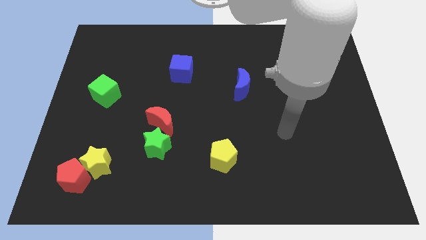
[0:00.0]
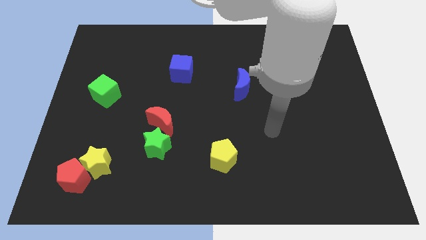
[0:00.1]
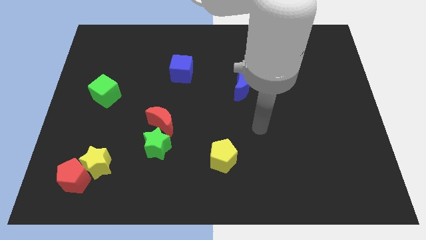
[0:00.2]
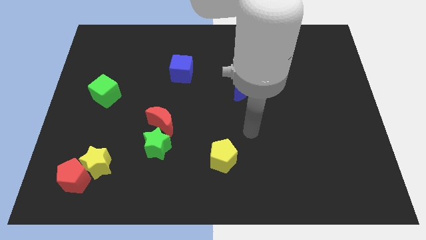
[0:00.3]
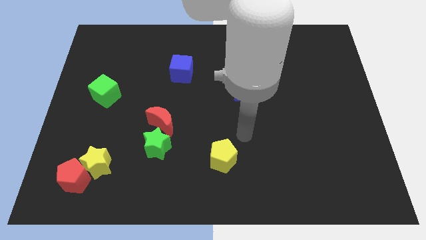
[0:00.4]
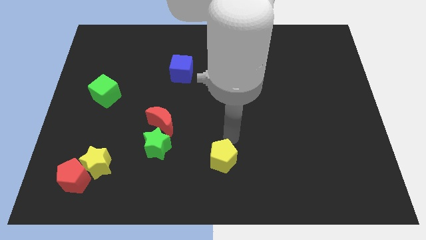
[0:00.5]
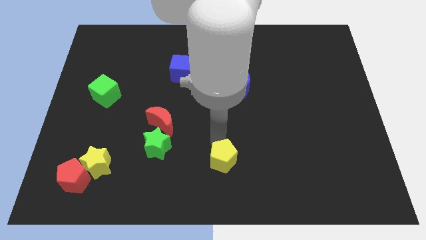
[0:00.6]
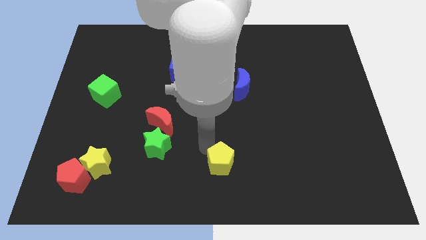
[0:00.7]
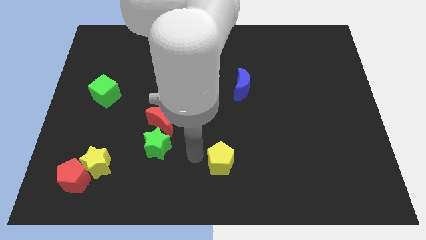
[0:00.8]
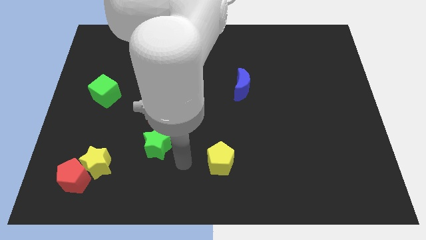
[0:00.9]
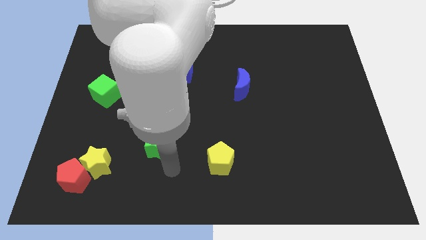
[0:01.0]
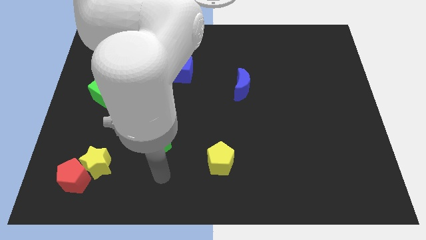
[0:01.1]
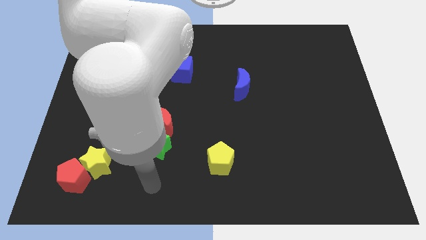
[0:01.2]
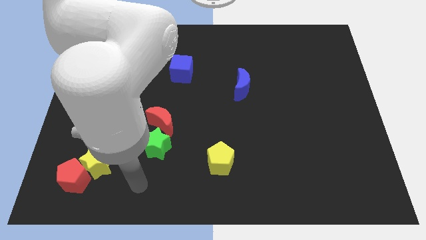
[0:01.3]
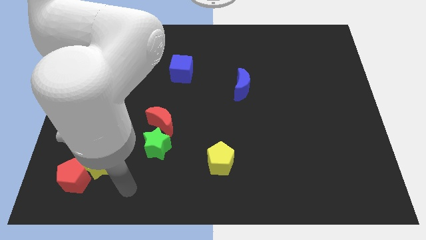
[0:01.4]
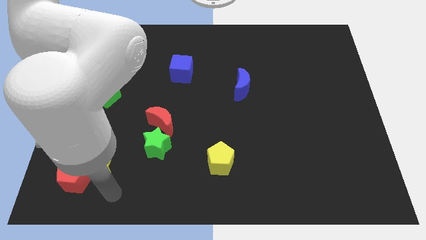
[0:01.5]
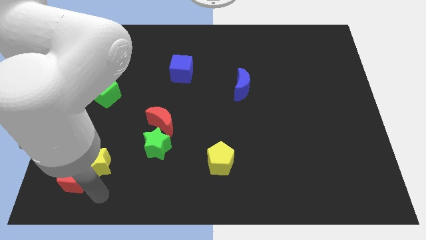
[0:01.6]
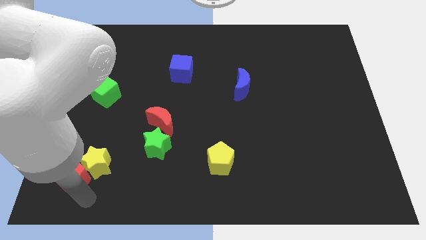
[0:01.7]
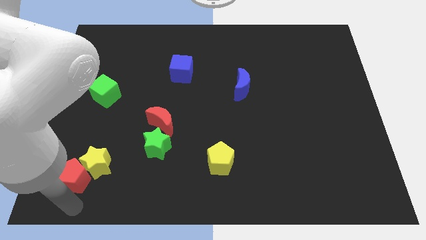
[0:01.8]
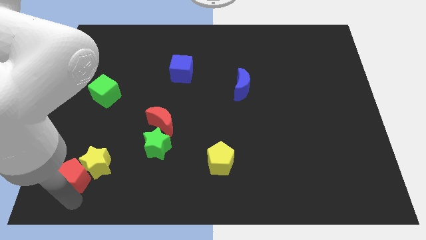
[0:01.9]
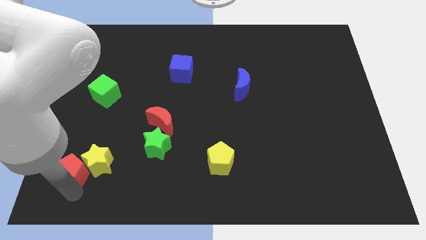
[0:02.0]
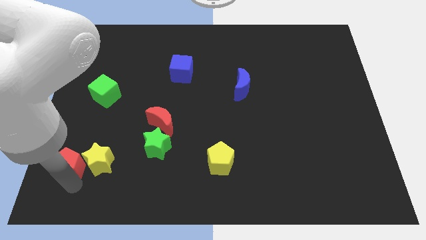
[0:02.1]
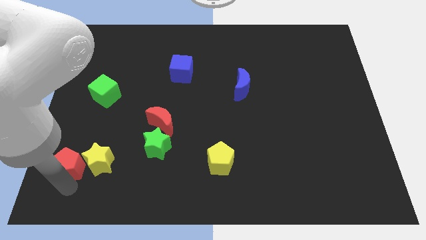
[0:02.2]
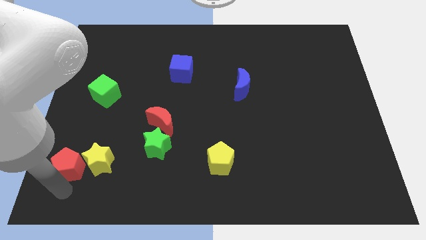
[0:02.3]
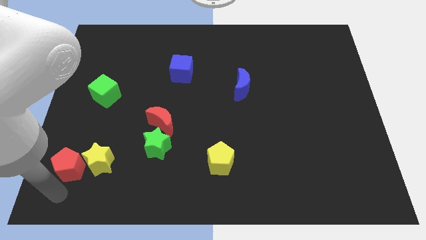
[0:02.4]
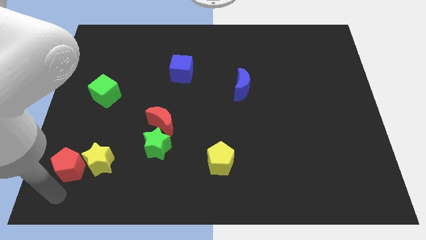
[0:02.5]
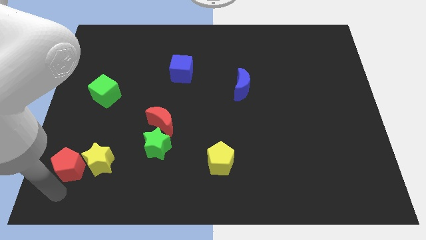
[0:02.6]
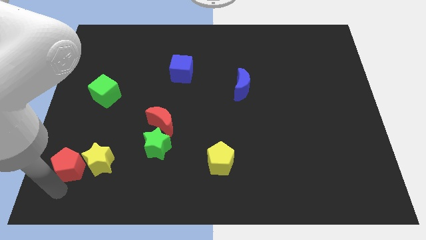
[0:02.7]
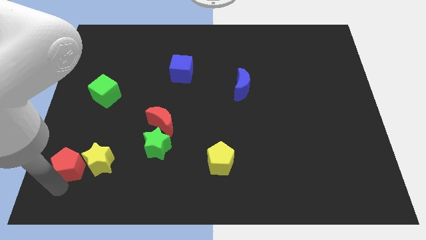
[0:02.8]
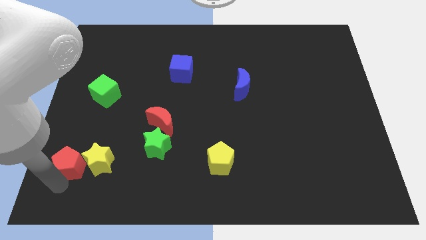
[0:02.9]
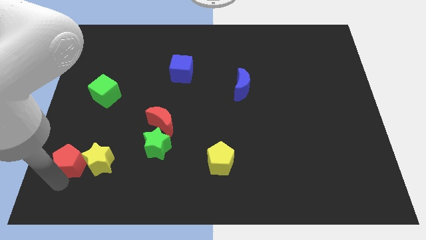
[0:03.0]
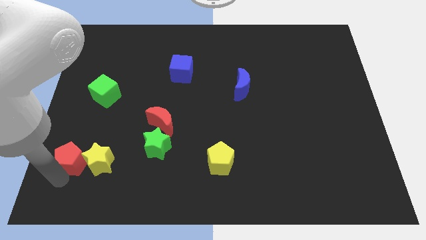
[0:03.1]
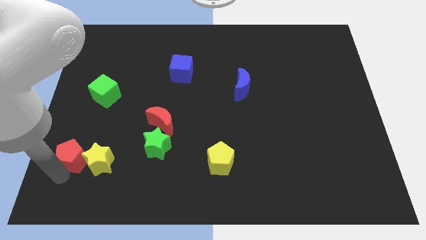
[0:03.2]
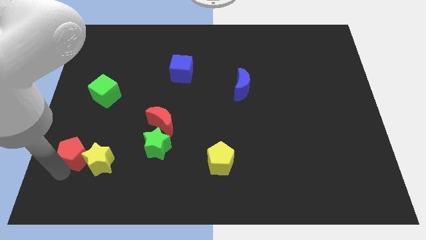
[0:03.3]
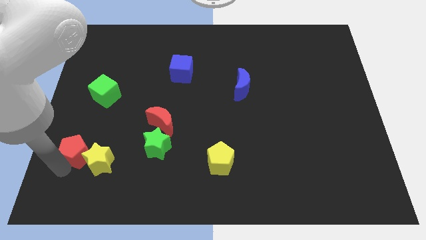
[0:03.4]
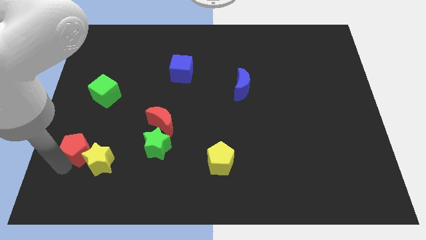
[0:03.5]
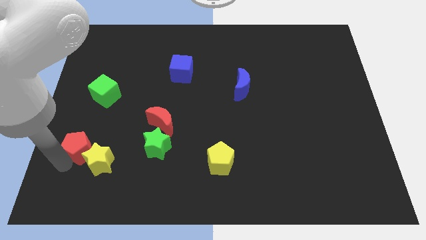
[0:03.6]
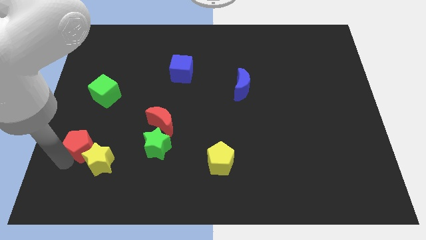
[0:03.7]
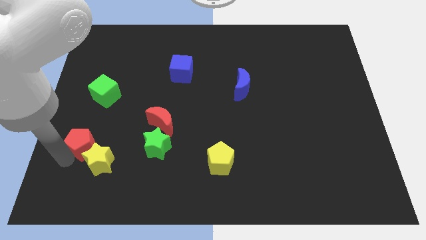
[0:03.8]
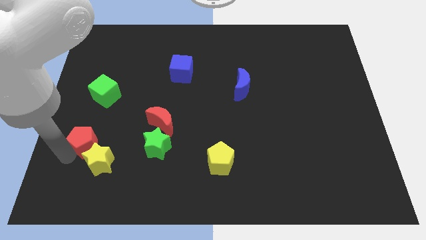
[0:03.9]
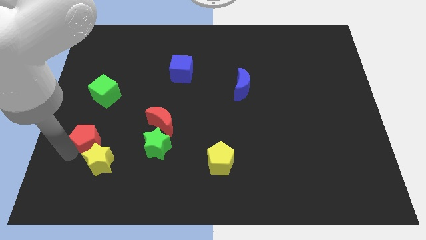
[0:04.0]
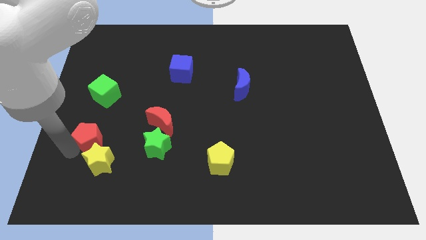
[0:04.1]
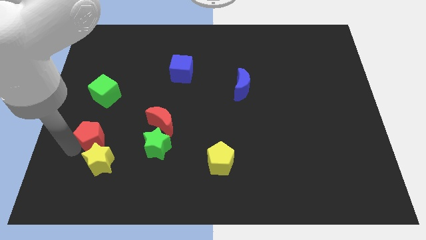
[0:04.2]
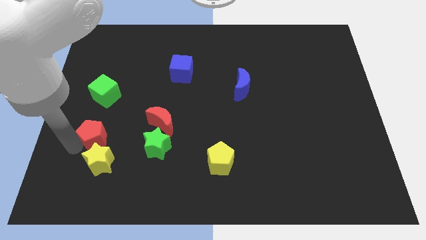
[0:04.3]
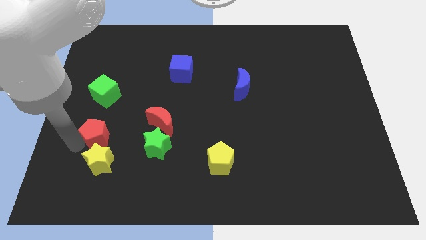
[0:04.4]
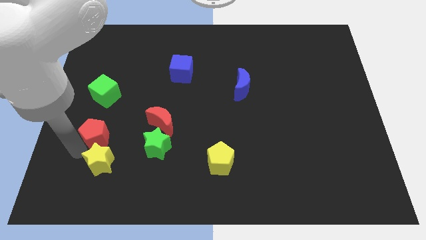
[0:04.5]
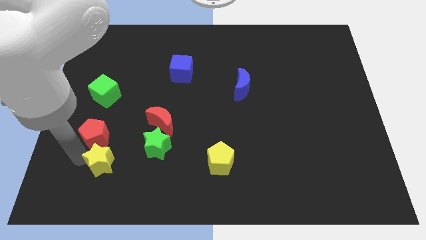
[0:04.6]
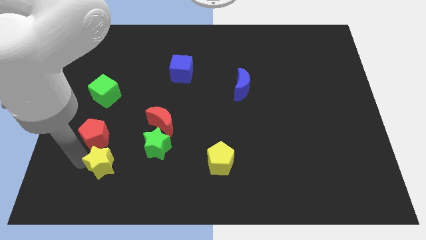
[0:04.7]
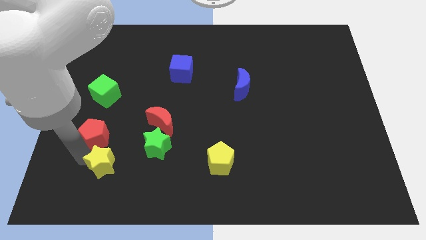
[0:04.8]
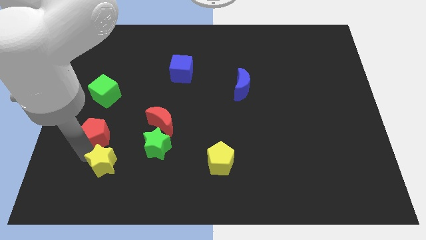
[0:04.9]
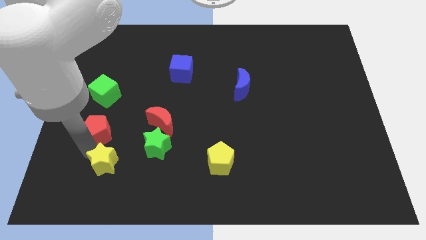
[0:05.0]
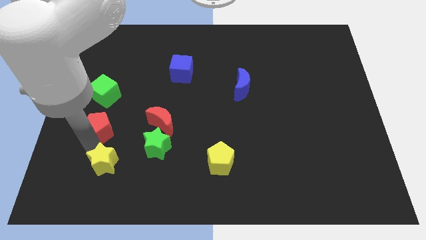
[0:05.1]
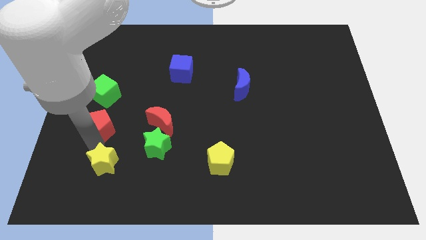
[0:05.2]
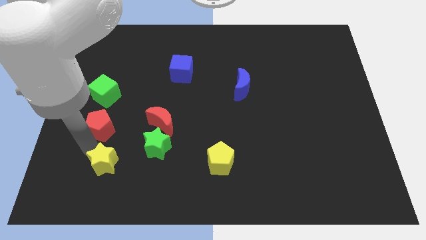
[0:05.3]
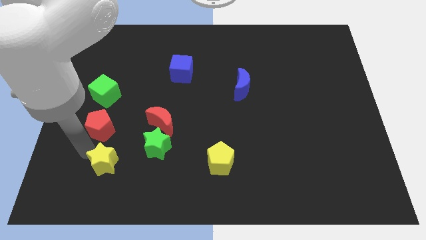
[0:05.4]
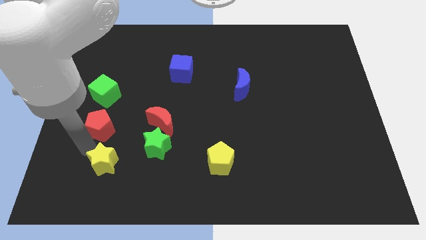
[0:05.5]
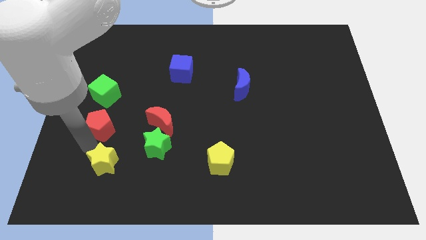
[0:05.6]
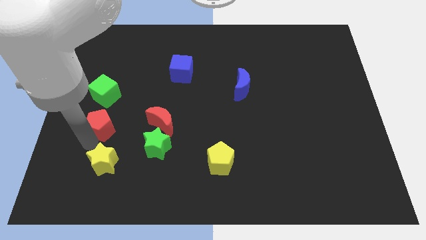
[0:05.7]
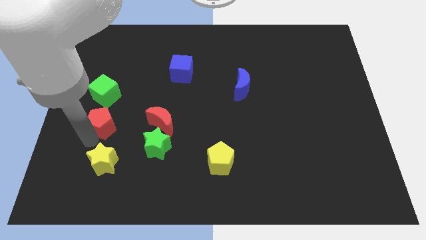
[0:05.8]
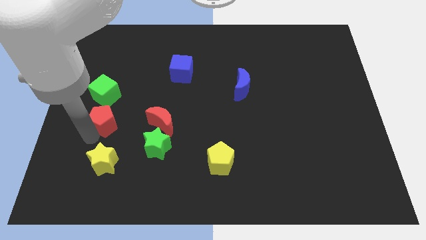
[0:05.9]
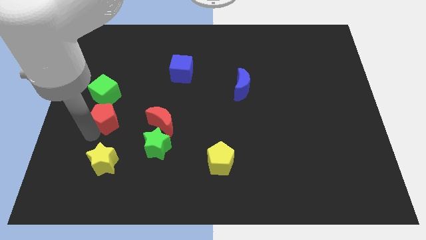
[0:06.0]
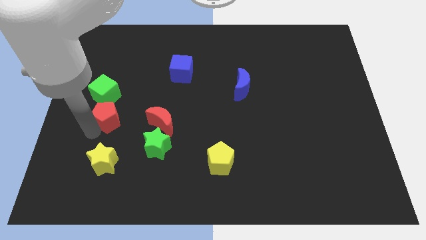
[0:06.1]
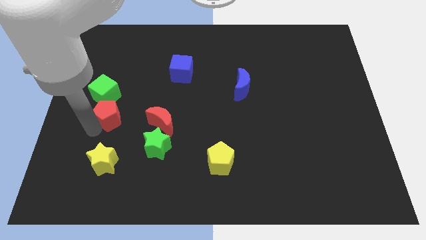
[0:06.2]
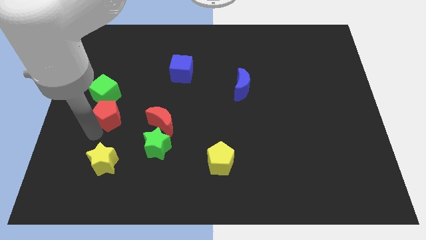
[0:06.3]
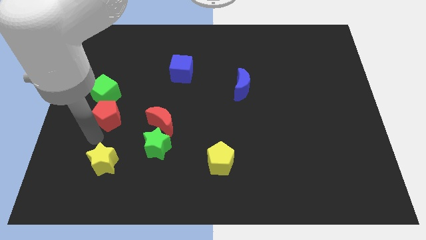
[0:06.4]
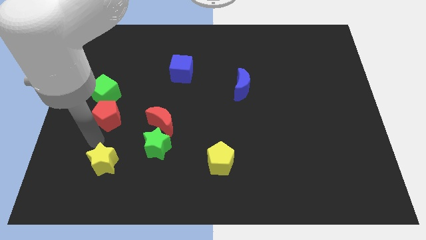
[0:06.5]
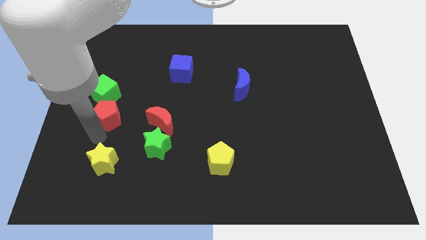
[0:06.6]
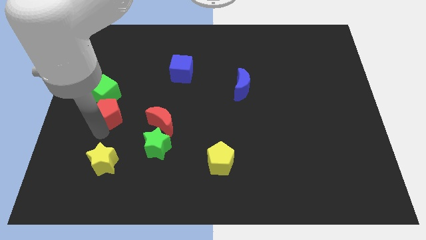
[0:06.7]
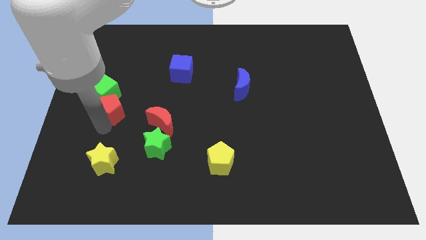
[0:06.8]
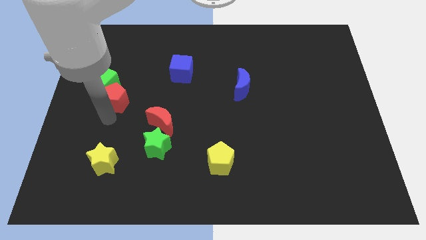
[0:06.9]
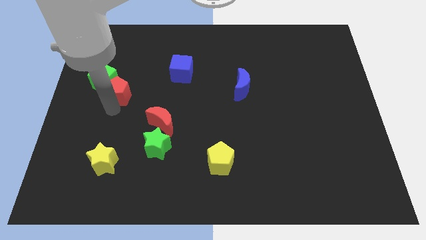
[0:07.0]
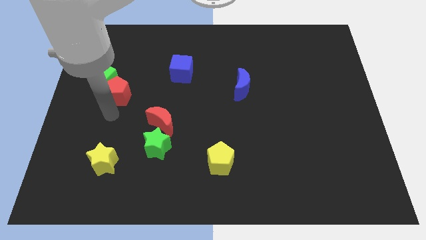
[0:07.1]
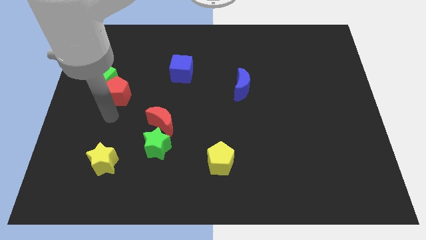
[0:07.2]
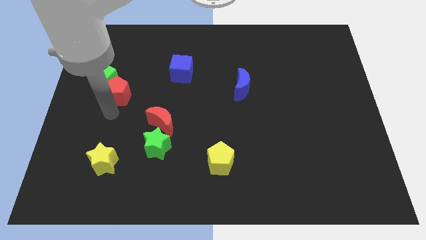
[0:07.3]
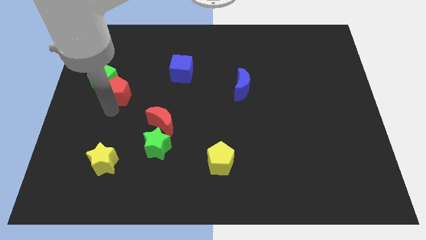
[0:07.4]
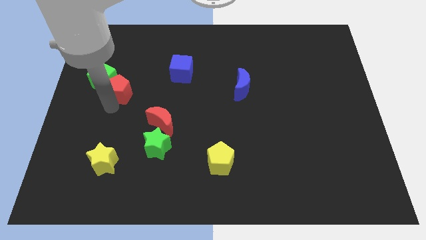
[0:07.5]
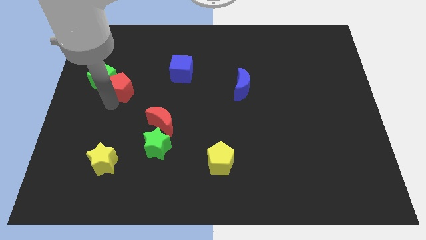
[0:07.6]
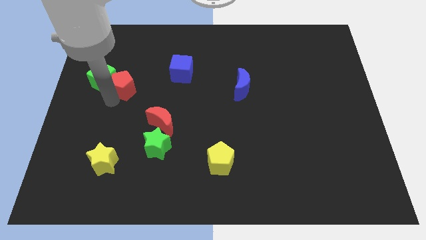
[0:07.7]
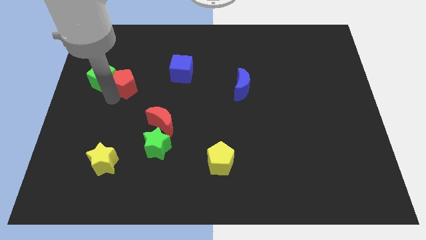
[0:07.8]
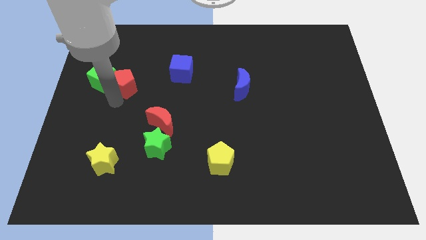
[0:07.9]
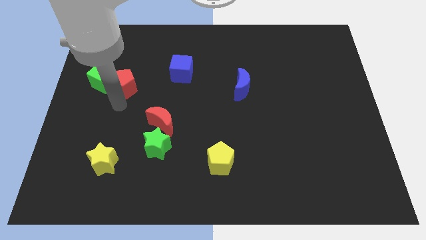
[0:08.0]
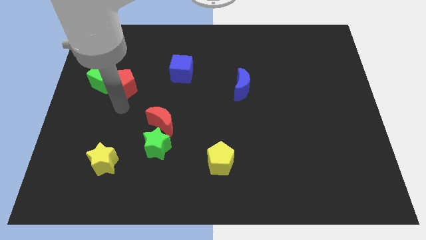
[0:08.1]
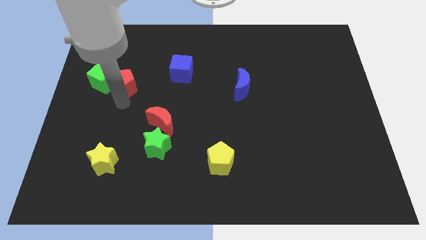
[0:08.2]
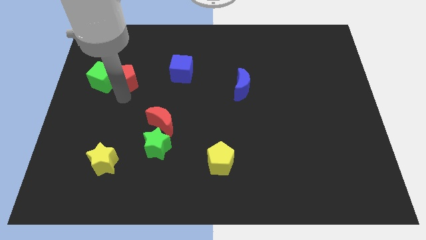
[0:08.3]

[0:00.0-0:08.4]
move the red pentagon to the top right of the green cube
